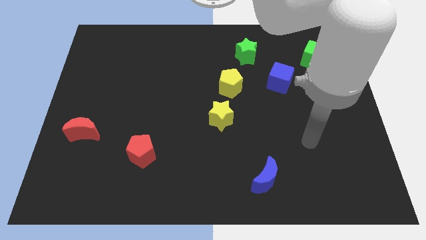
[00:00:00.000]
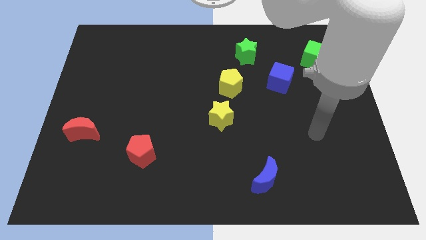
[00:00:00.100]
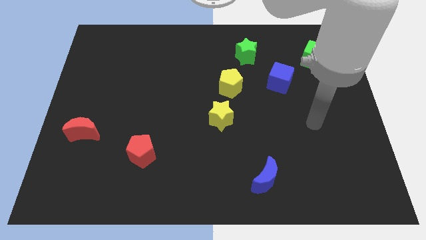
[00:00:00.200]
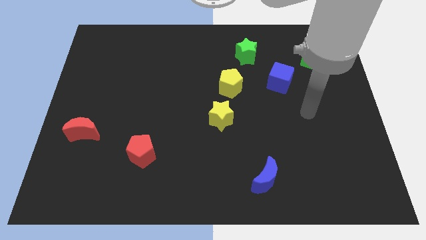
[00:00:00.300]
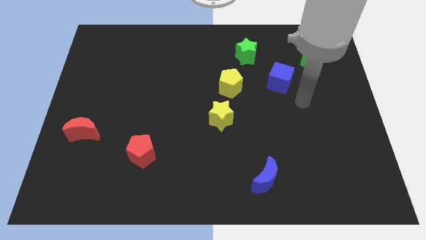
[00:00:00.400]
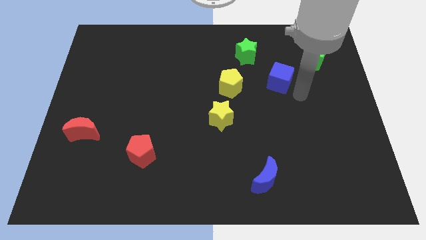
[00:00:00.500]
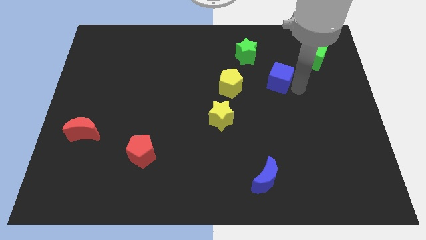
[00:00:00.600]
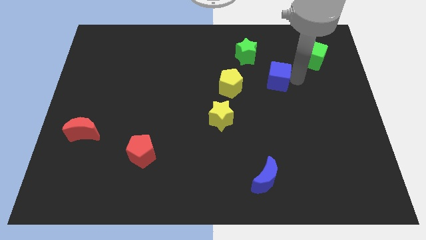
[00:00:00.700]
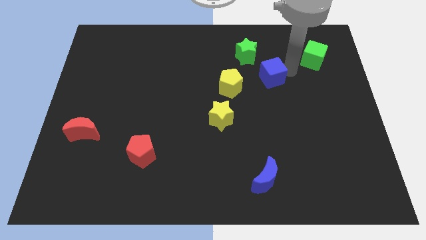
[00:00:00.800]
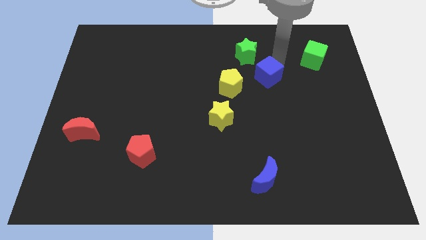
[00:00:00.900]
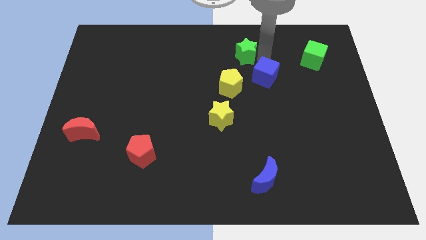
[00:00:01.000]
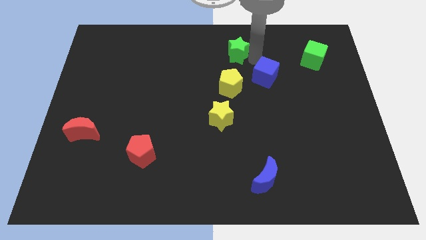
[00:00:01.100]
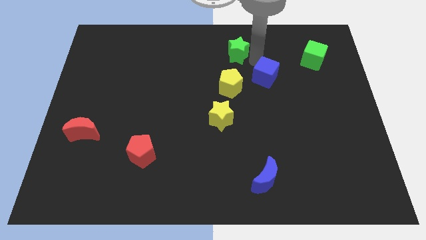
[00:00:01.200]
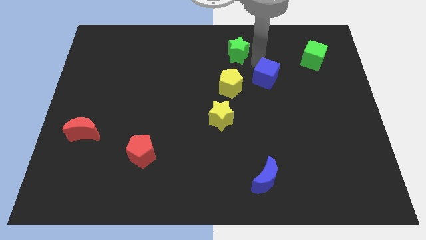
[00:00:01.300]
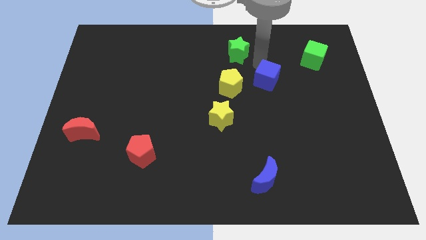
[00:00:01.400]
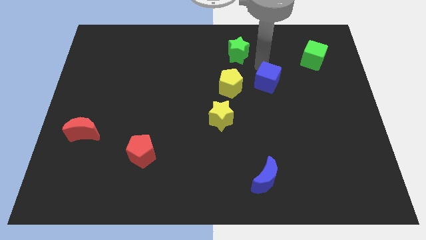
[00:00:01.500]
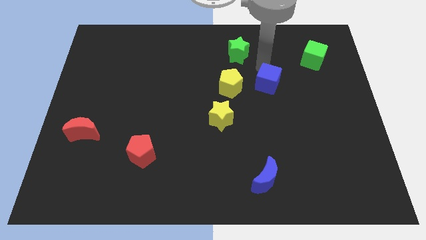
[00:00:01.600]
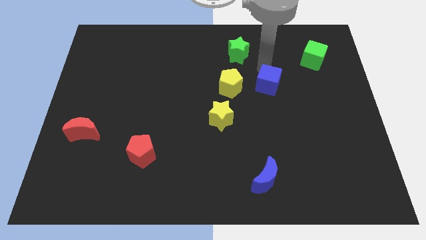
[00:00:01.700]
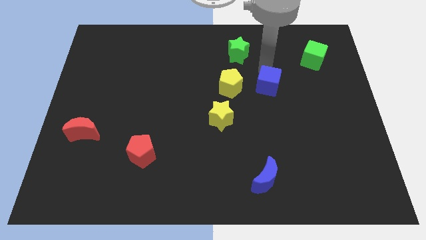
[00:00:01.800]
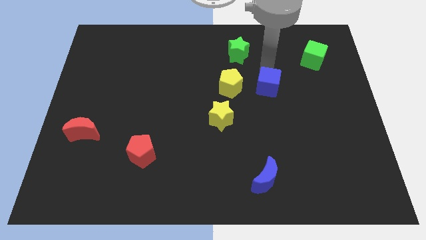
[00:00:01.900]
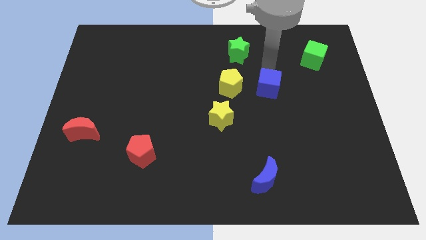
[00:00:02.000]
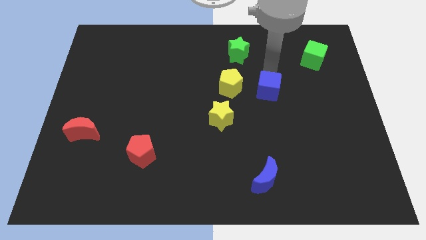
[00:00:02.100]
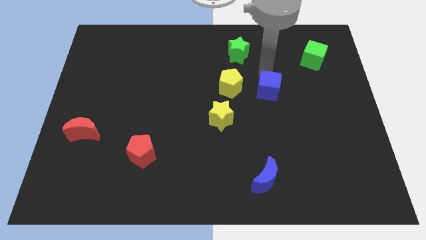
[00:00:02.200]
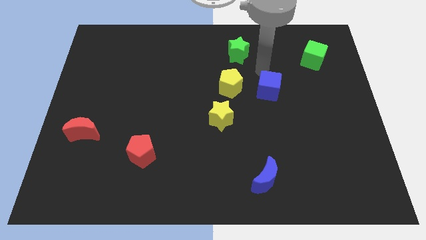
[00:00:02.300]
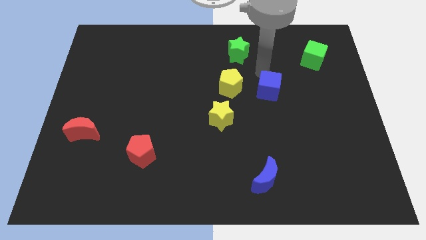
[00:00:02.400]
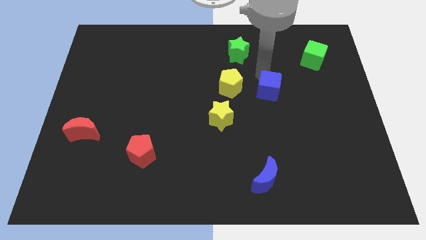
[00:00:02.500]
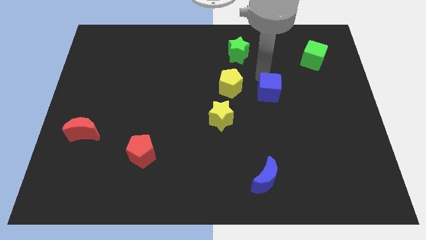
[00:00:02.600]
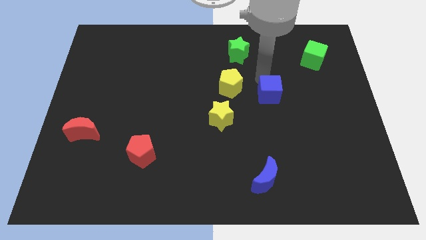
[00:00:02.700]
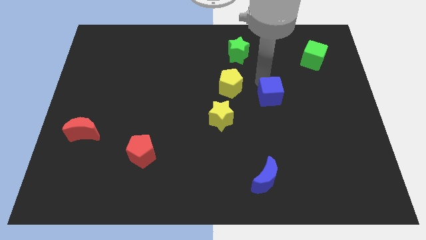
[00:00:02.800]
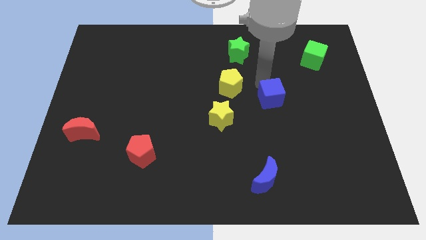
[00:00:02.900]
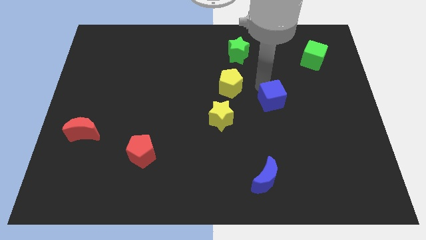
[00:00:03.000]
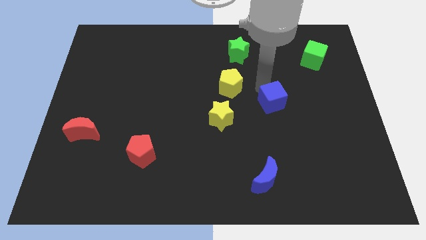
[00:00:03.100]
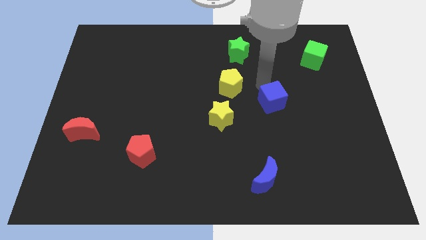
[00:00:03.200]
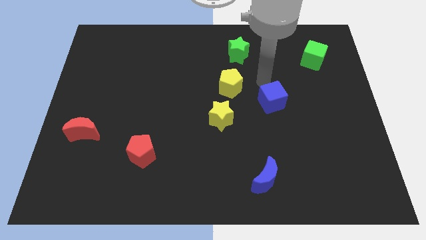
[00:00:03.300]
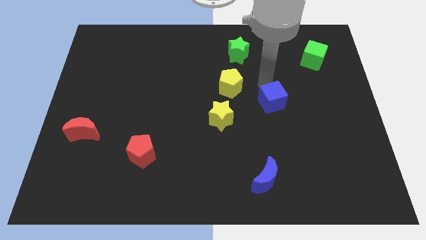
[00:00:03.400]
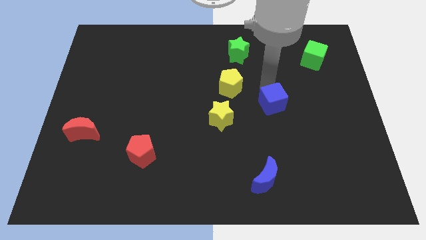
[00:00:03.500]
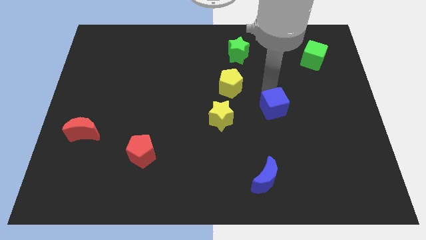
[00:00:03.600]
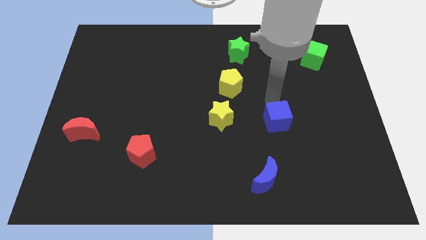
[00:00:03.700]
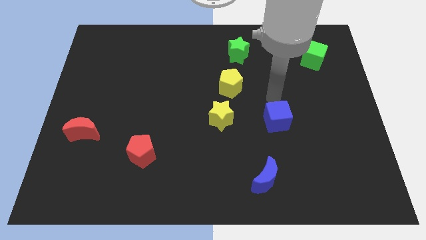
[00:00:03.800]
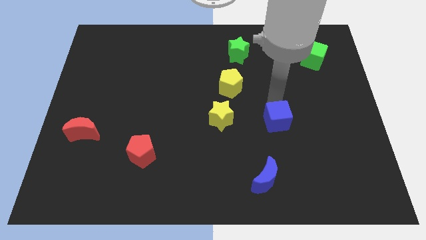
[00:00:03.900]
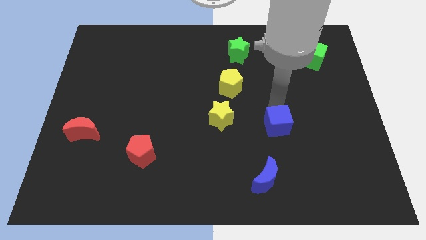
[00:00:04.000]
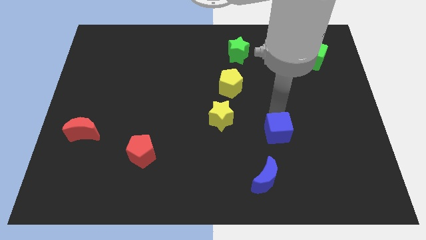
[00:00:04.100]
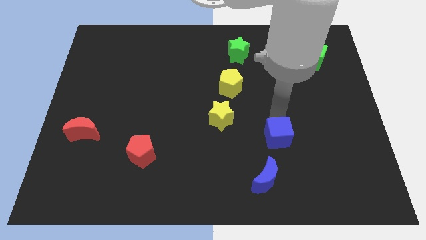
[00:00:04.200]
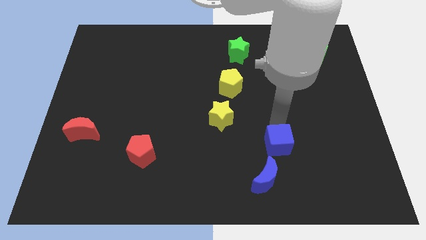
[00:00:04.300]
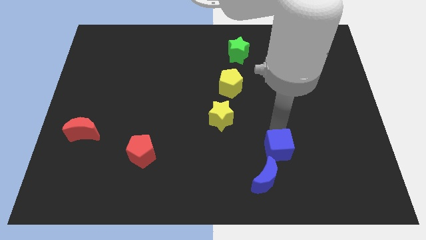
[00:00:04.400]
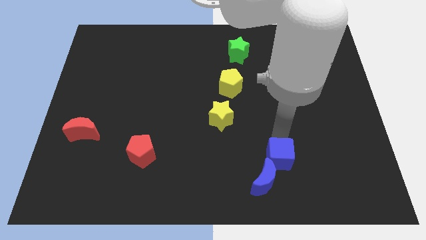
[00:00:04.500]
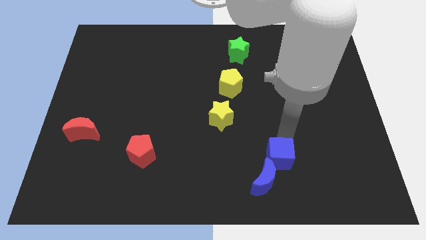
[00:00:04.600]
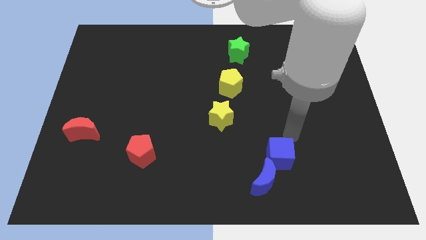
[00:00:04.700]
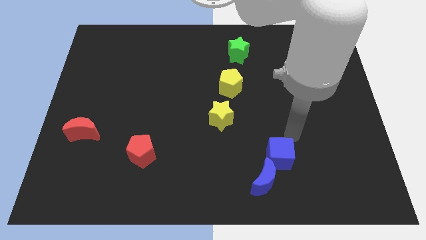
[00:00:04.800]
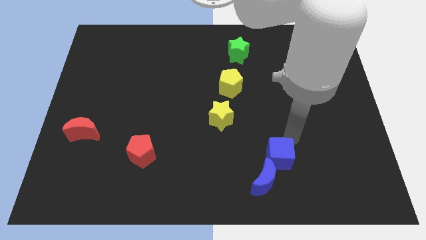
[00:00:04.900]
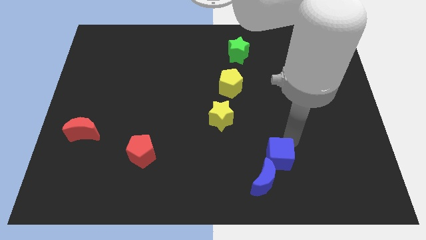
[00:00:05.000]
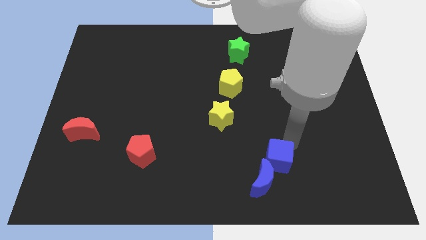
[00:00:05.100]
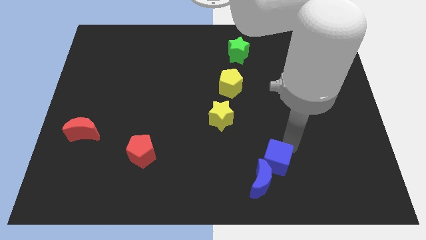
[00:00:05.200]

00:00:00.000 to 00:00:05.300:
slide the blue cube to the blue moon

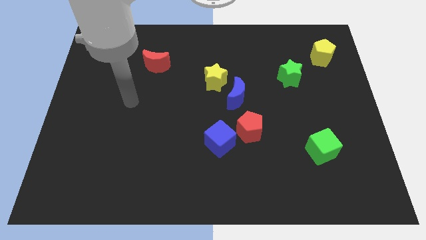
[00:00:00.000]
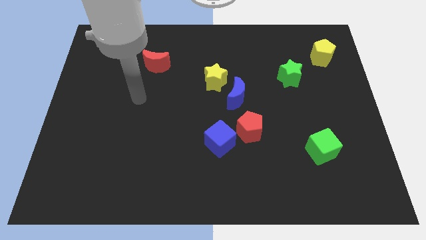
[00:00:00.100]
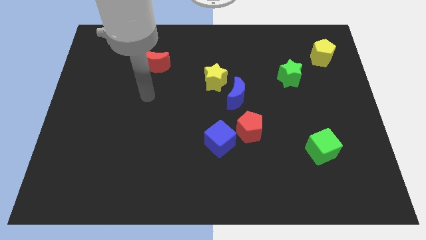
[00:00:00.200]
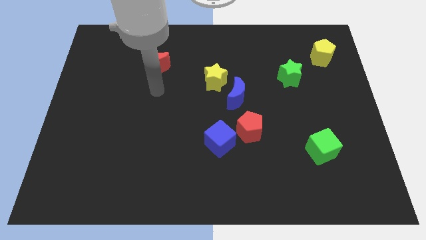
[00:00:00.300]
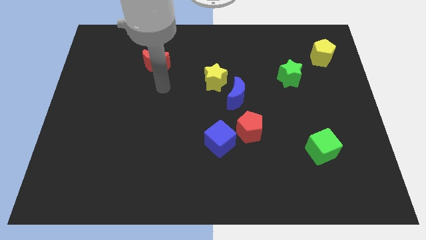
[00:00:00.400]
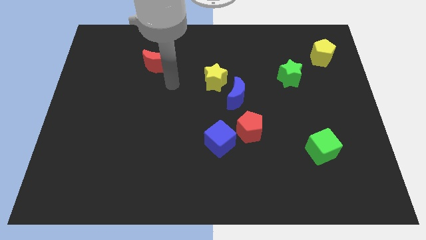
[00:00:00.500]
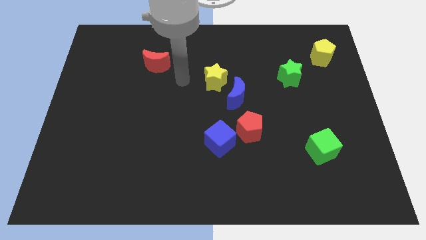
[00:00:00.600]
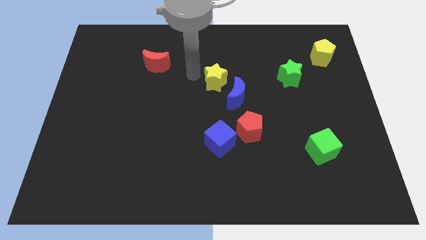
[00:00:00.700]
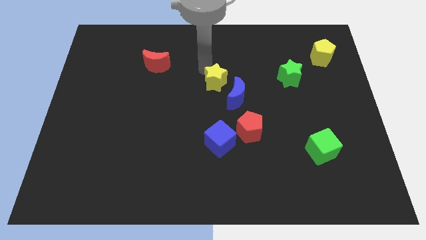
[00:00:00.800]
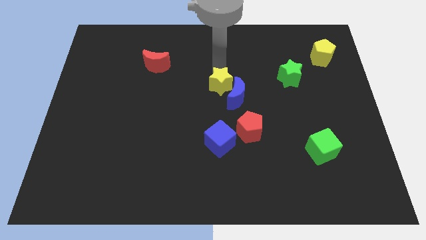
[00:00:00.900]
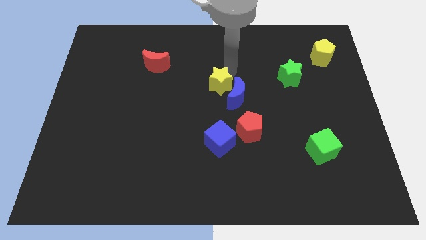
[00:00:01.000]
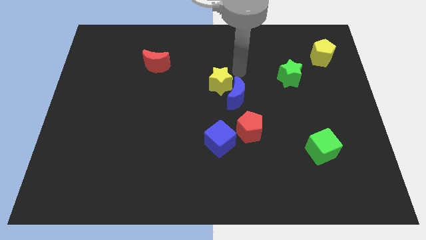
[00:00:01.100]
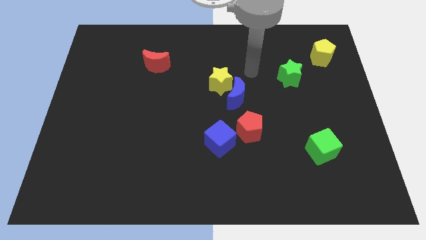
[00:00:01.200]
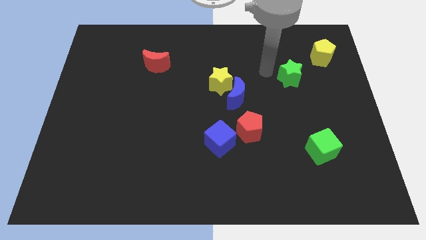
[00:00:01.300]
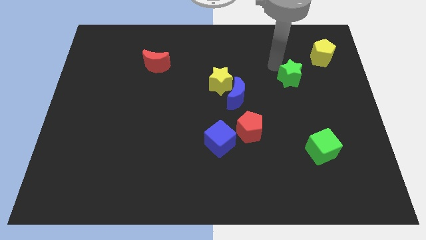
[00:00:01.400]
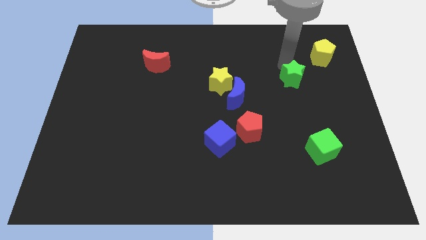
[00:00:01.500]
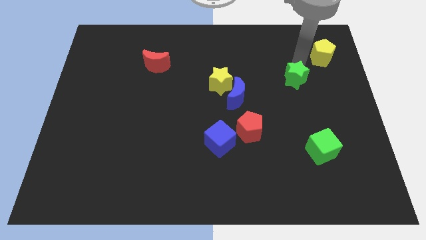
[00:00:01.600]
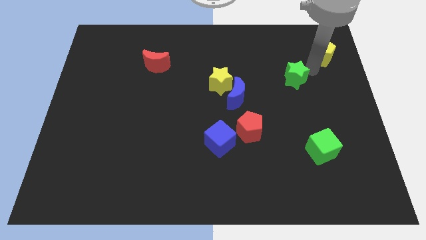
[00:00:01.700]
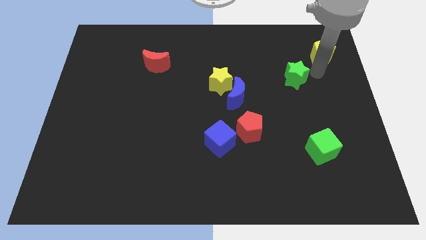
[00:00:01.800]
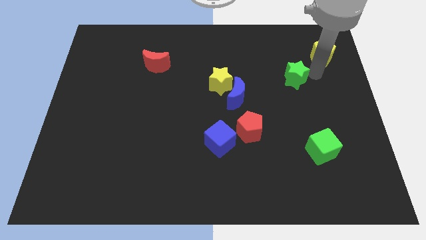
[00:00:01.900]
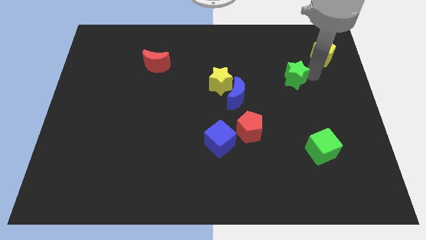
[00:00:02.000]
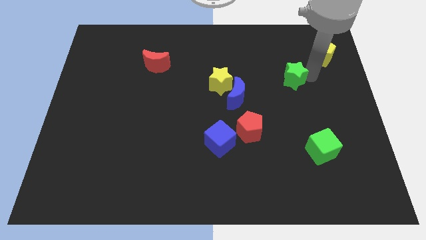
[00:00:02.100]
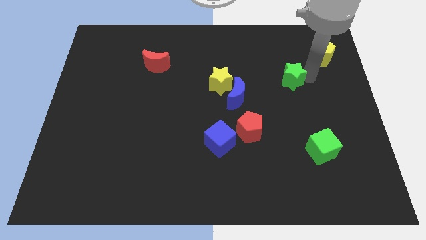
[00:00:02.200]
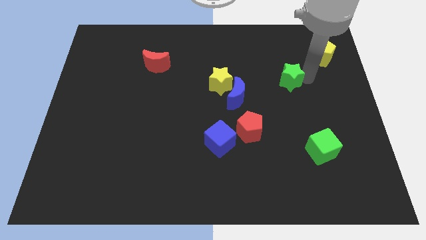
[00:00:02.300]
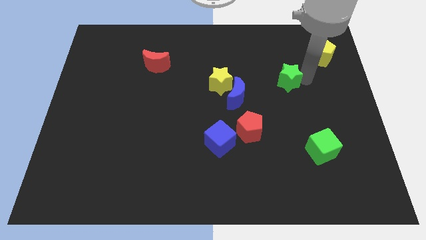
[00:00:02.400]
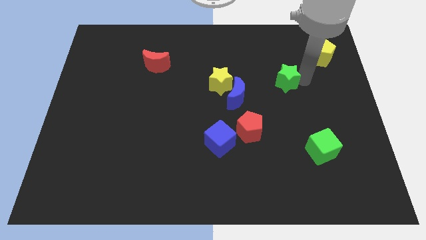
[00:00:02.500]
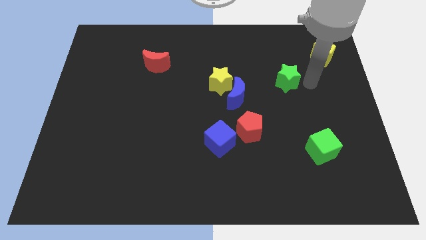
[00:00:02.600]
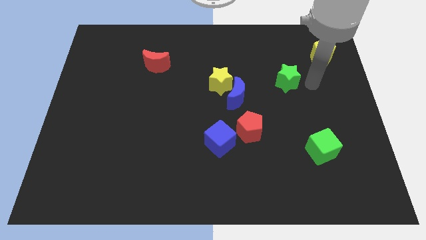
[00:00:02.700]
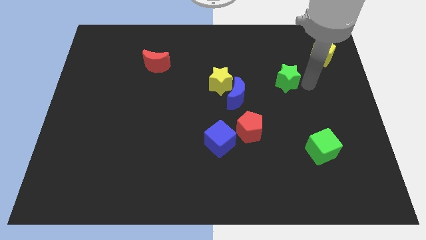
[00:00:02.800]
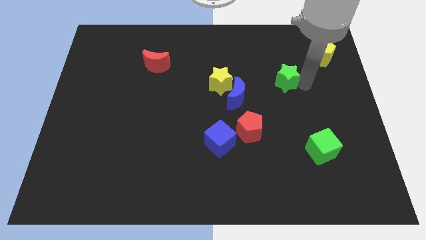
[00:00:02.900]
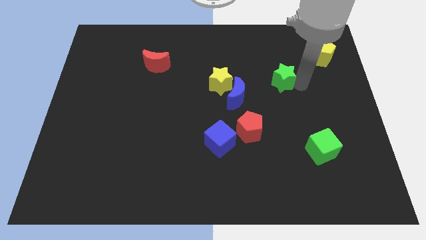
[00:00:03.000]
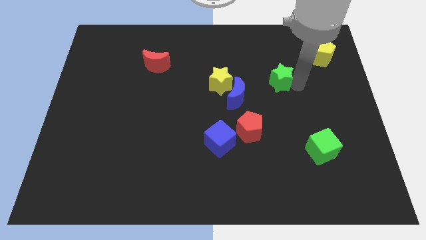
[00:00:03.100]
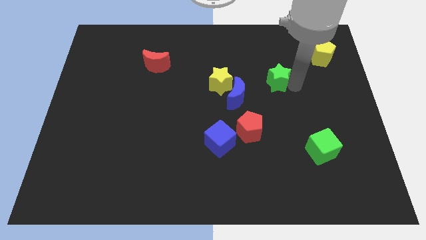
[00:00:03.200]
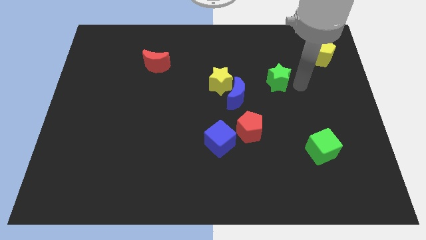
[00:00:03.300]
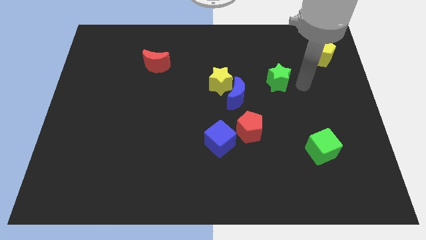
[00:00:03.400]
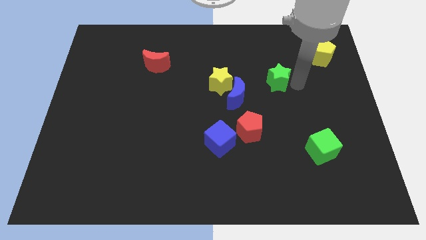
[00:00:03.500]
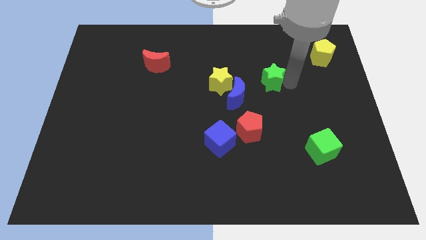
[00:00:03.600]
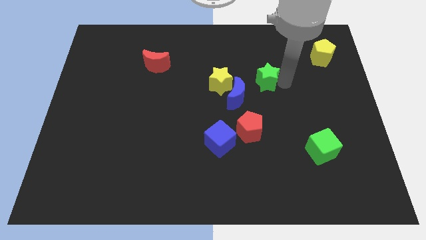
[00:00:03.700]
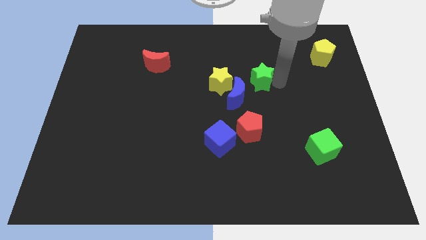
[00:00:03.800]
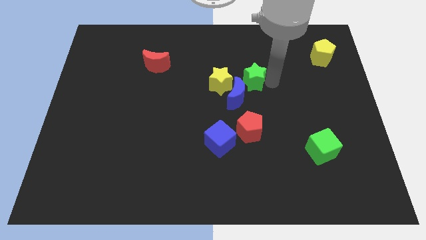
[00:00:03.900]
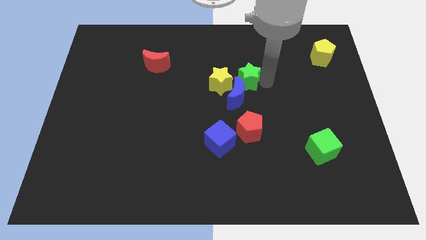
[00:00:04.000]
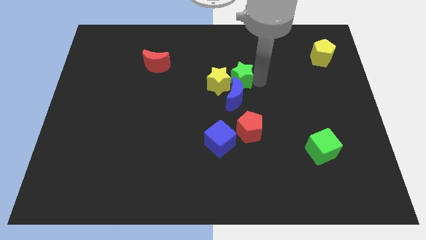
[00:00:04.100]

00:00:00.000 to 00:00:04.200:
push the green star next to the yellow star
